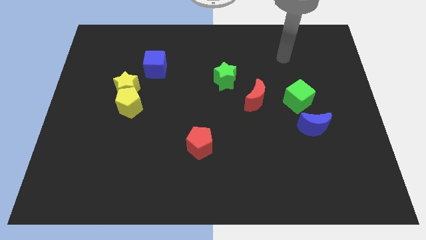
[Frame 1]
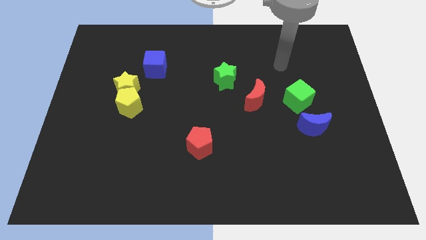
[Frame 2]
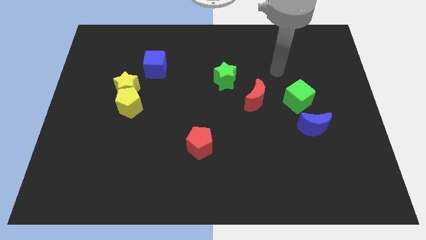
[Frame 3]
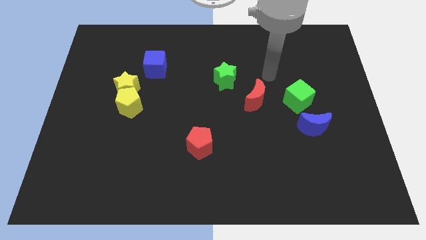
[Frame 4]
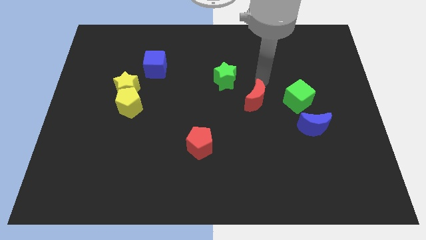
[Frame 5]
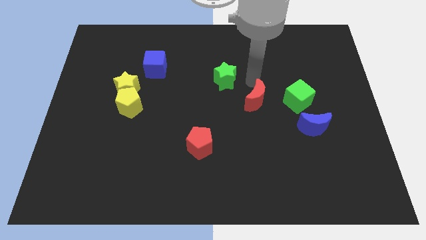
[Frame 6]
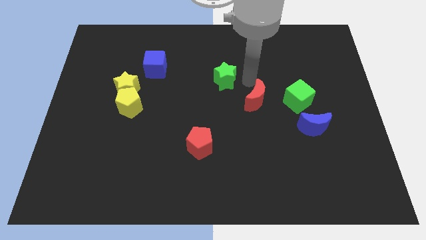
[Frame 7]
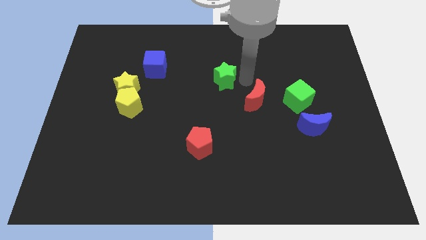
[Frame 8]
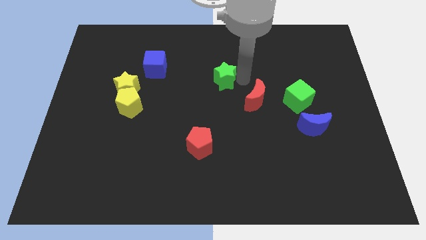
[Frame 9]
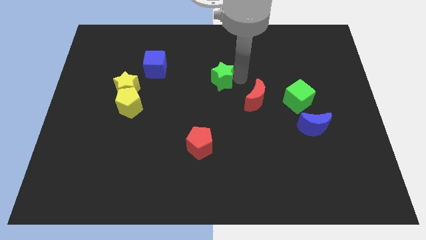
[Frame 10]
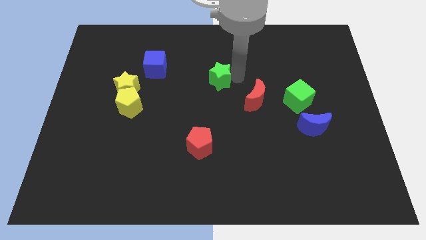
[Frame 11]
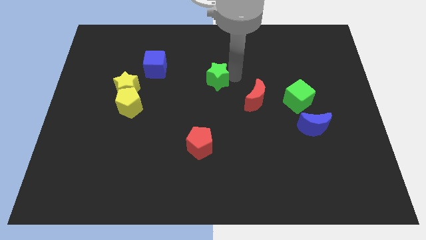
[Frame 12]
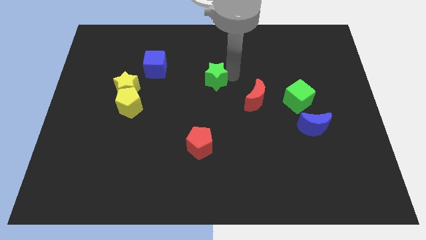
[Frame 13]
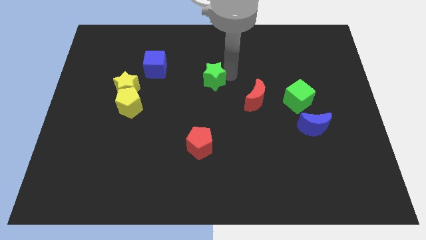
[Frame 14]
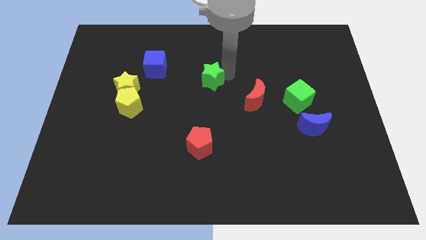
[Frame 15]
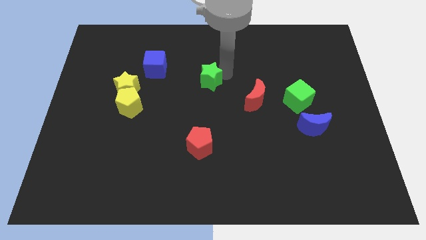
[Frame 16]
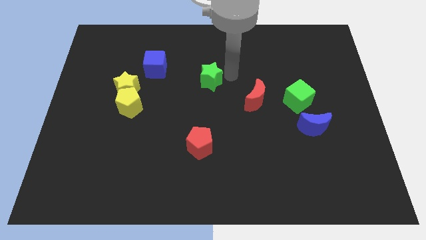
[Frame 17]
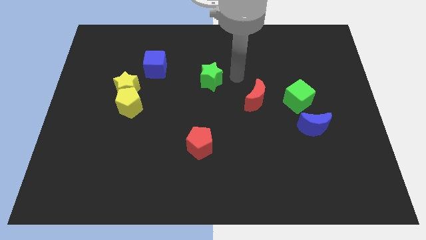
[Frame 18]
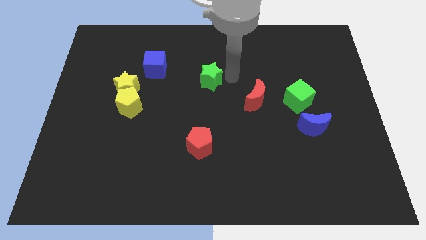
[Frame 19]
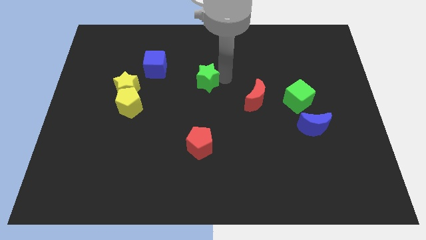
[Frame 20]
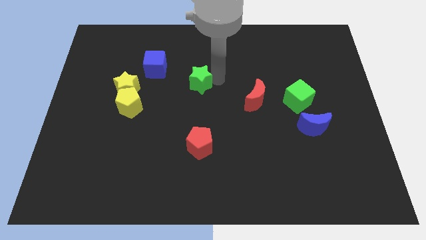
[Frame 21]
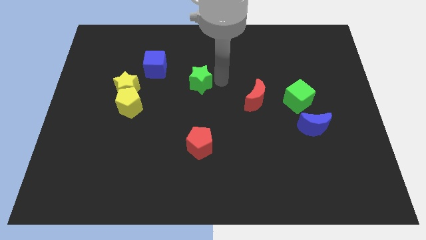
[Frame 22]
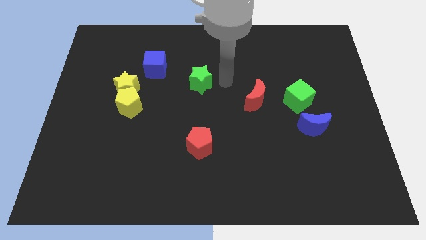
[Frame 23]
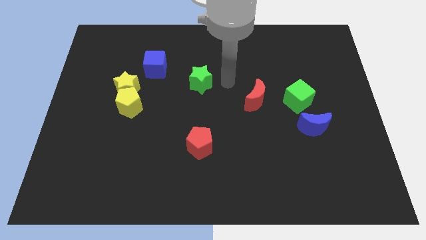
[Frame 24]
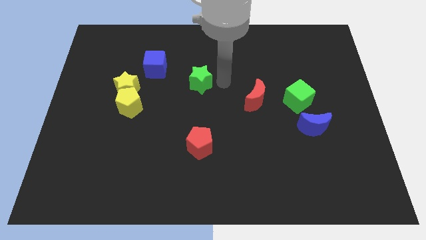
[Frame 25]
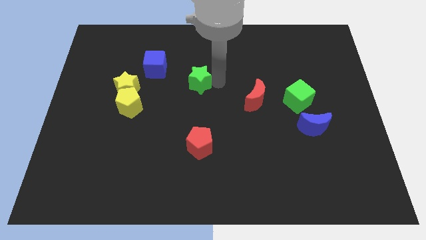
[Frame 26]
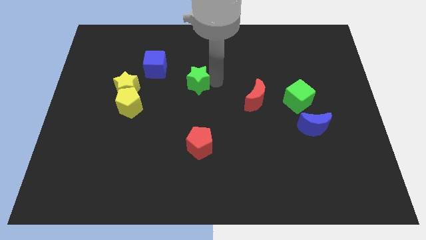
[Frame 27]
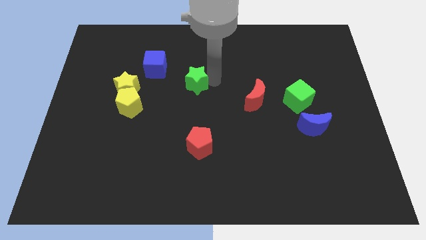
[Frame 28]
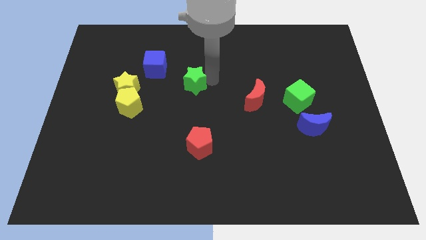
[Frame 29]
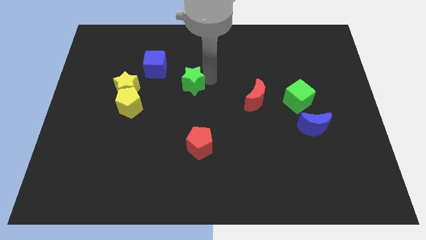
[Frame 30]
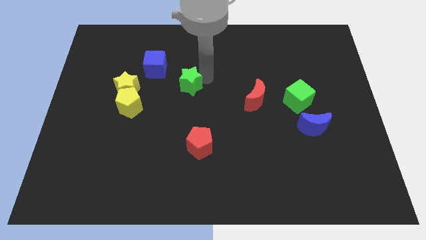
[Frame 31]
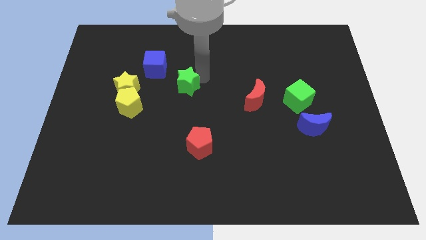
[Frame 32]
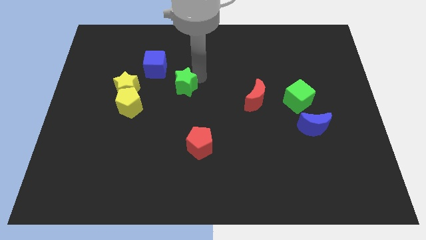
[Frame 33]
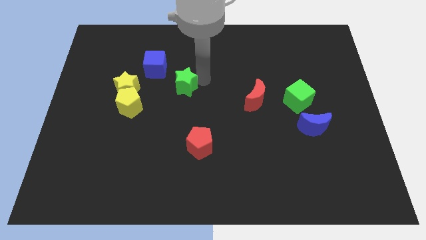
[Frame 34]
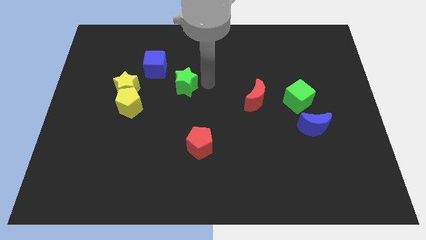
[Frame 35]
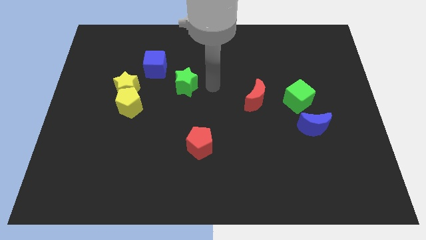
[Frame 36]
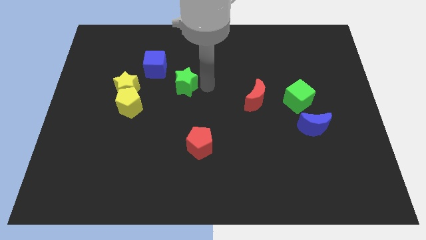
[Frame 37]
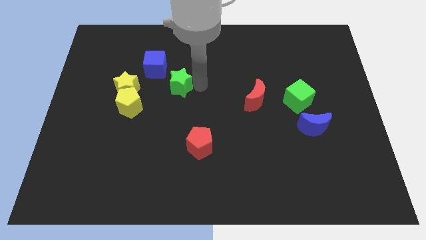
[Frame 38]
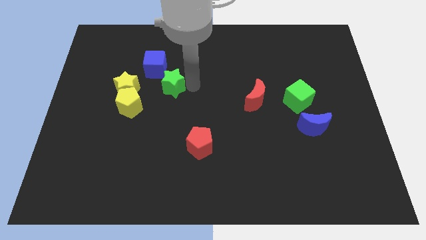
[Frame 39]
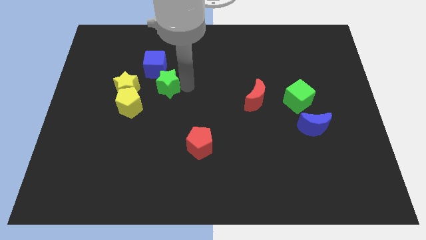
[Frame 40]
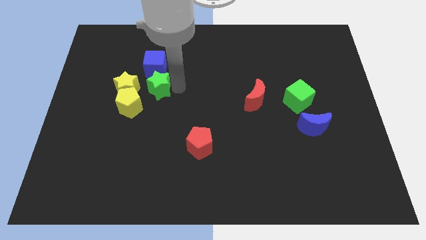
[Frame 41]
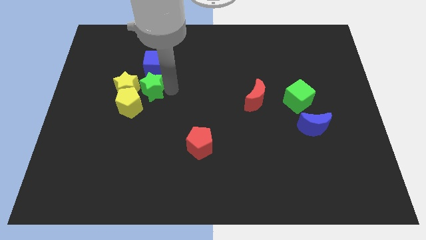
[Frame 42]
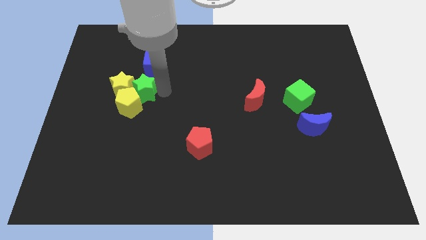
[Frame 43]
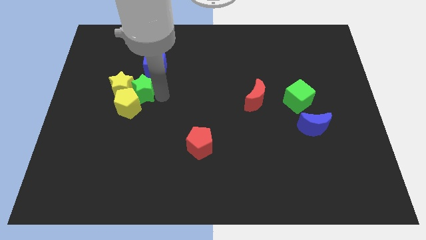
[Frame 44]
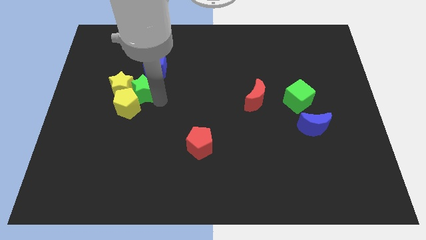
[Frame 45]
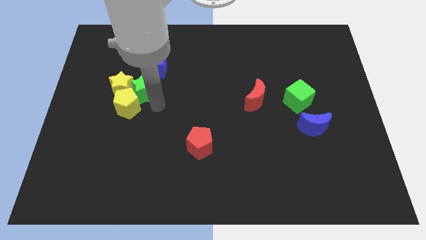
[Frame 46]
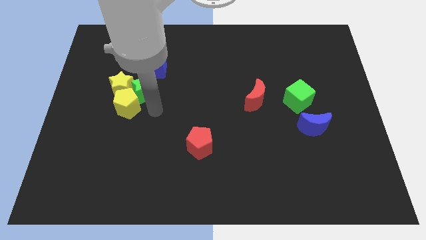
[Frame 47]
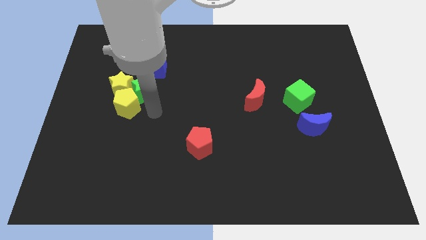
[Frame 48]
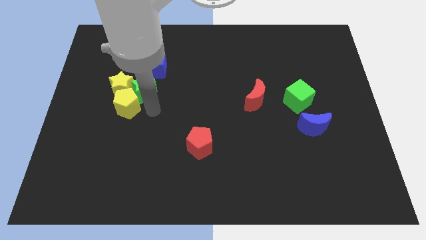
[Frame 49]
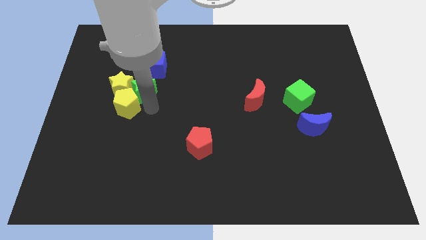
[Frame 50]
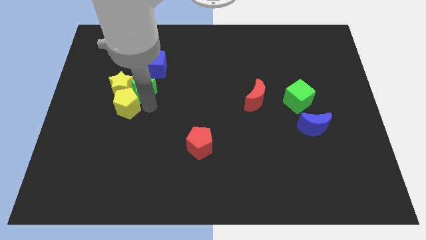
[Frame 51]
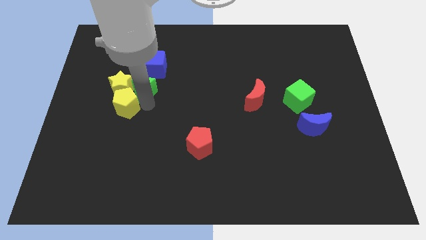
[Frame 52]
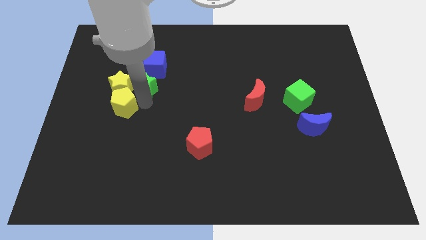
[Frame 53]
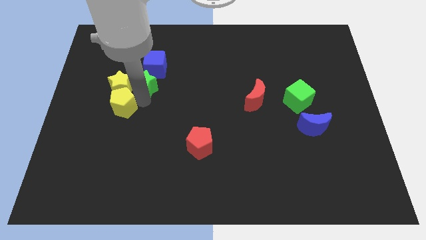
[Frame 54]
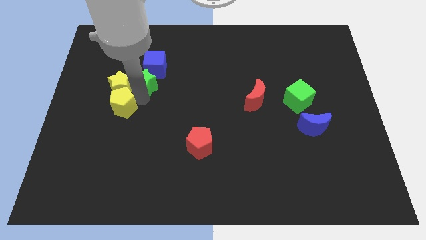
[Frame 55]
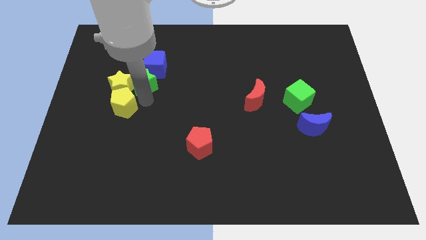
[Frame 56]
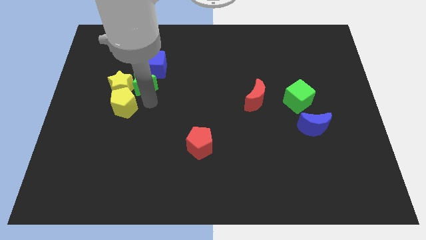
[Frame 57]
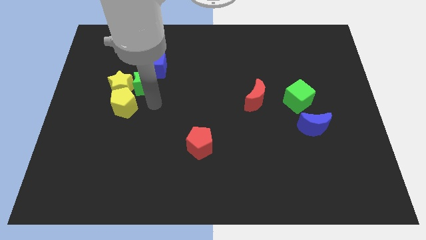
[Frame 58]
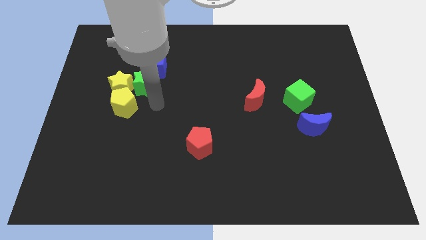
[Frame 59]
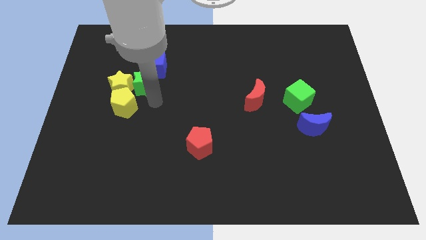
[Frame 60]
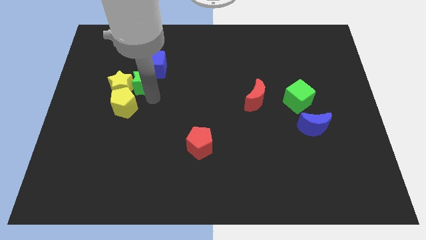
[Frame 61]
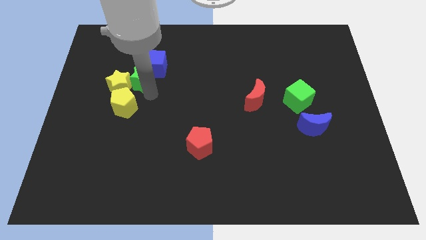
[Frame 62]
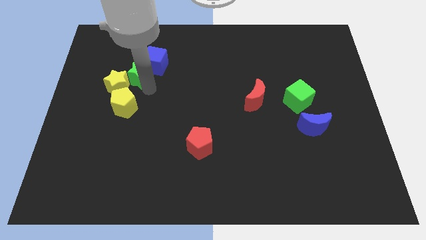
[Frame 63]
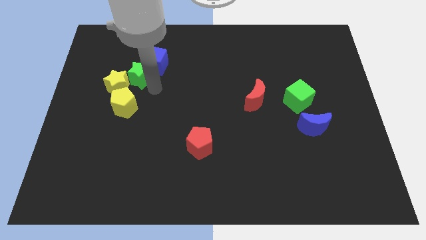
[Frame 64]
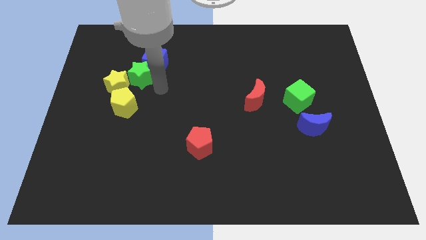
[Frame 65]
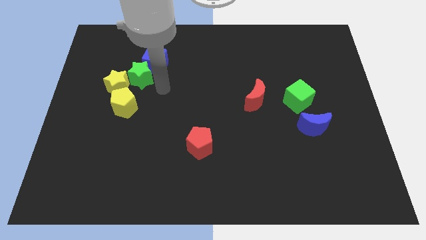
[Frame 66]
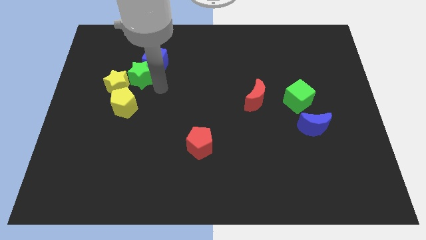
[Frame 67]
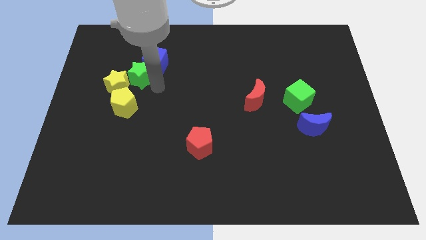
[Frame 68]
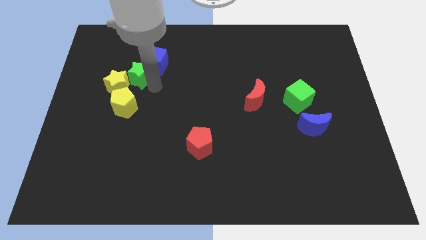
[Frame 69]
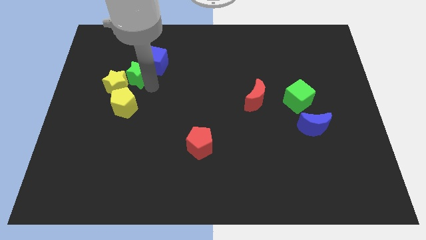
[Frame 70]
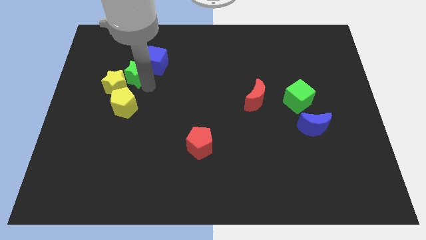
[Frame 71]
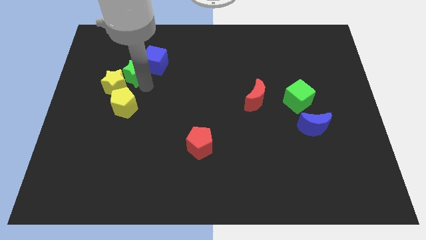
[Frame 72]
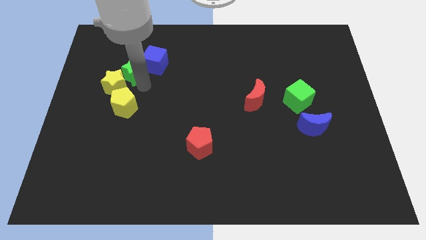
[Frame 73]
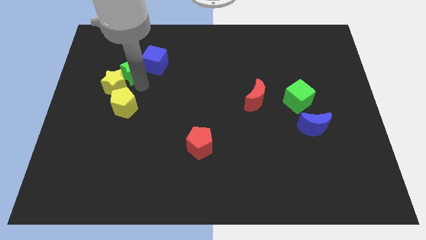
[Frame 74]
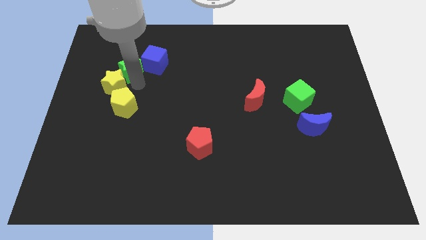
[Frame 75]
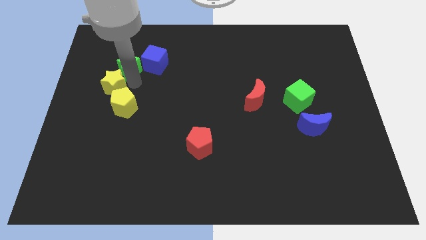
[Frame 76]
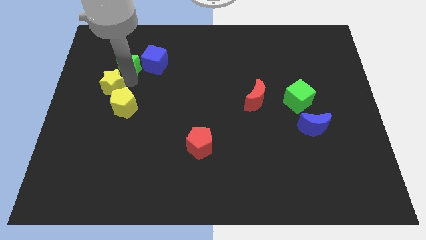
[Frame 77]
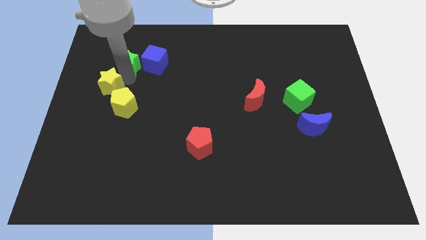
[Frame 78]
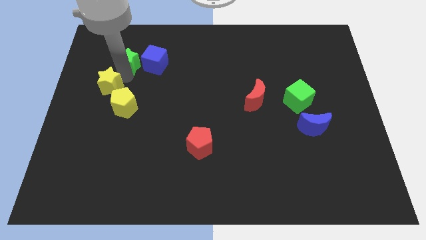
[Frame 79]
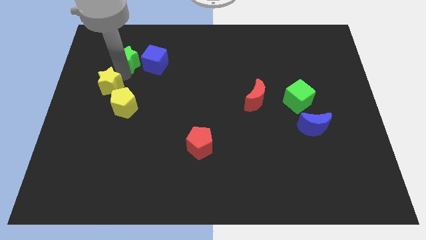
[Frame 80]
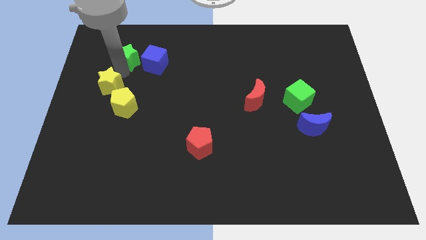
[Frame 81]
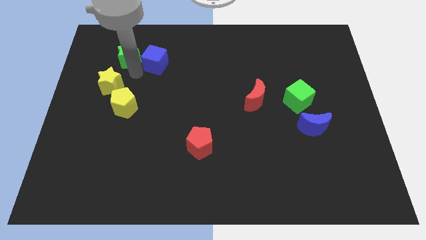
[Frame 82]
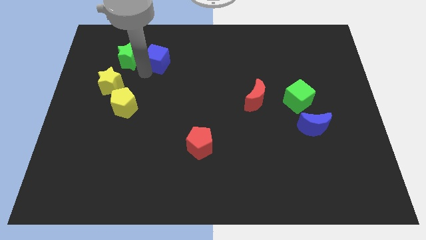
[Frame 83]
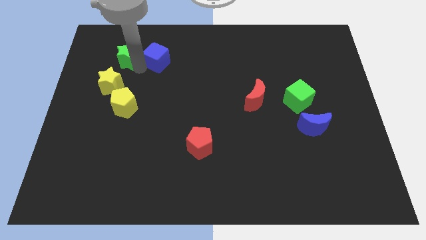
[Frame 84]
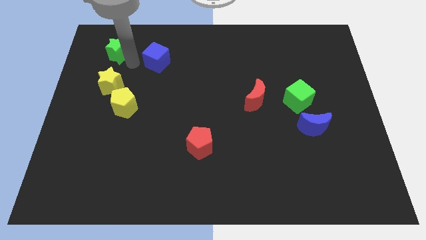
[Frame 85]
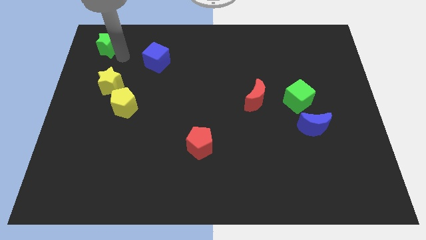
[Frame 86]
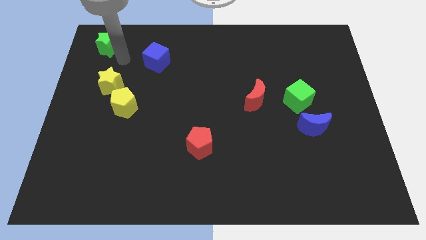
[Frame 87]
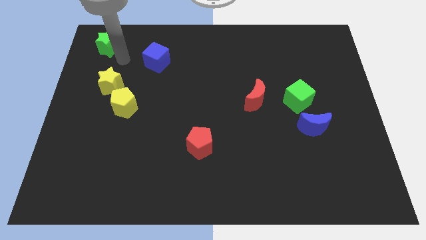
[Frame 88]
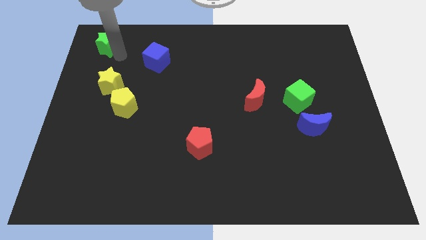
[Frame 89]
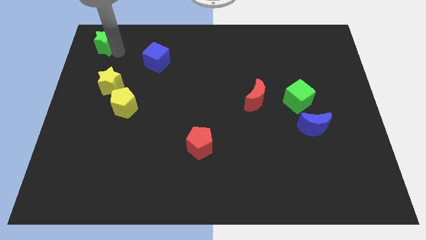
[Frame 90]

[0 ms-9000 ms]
move the green star to the upper left corner
